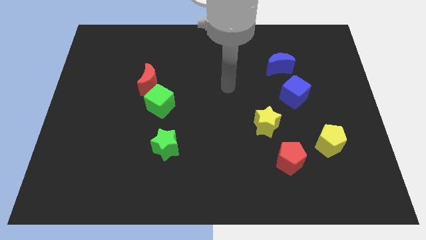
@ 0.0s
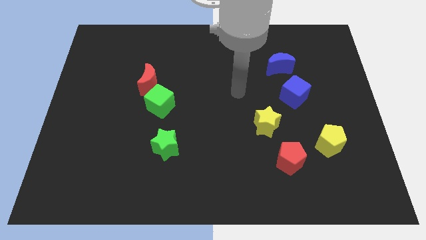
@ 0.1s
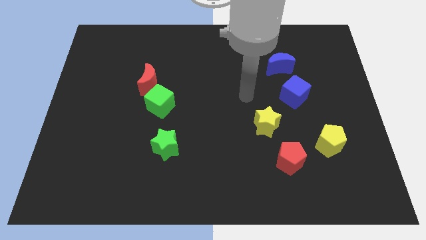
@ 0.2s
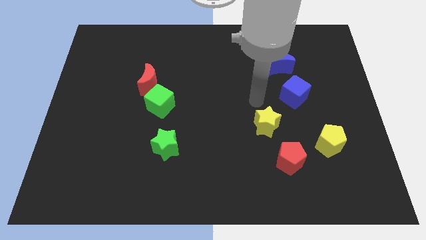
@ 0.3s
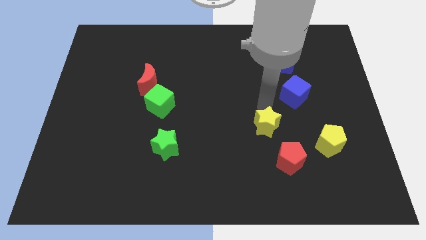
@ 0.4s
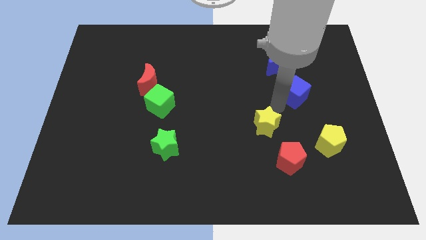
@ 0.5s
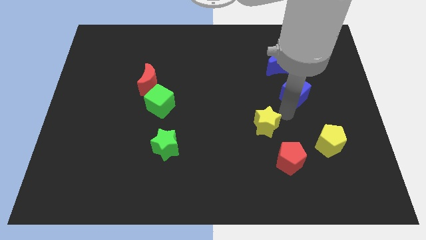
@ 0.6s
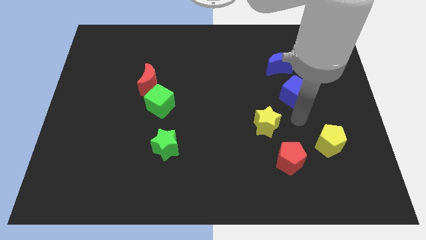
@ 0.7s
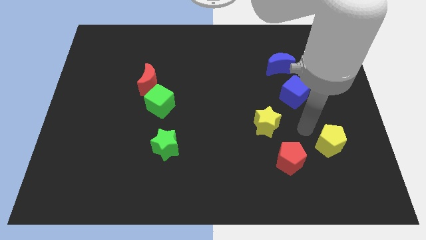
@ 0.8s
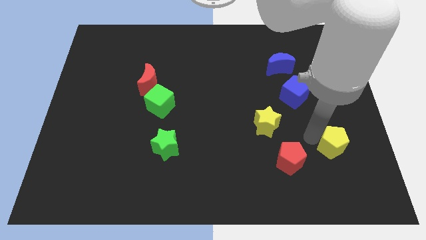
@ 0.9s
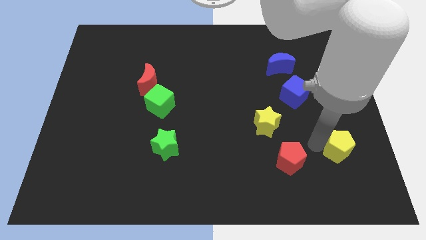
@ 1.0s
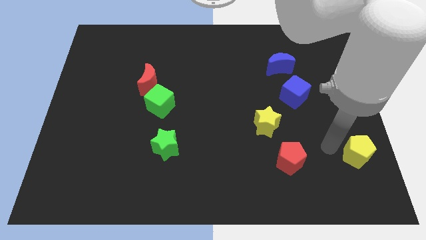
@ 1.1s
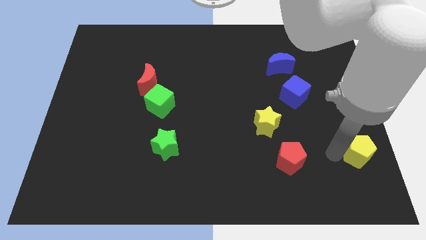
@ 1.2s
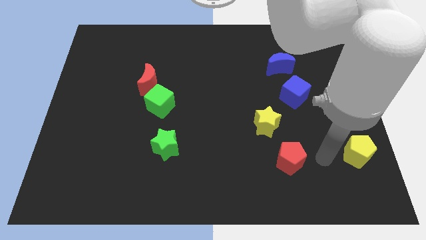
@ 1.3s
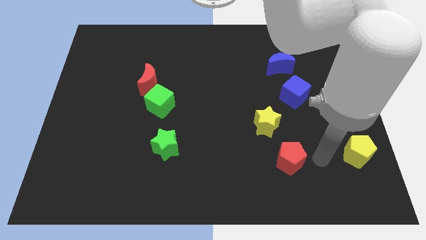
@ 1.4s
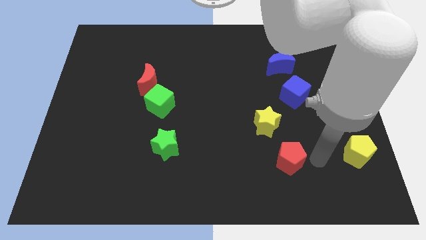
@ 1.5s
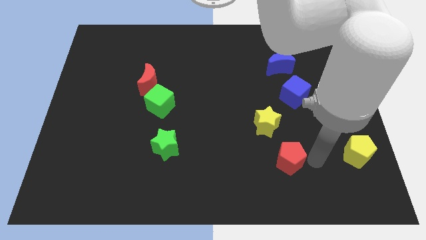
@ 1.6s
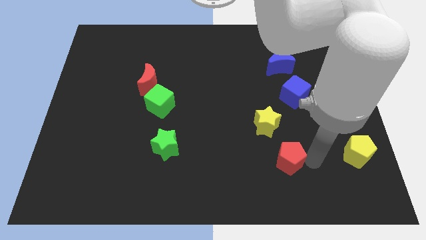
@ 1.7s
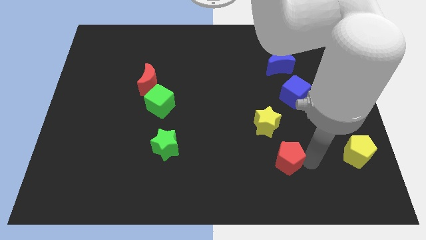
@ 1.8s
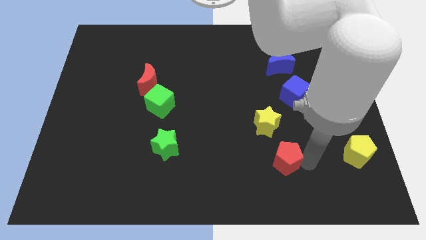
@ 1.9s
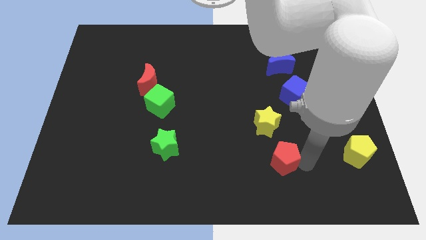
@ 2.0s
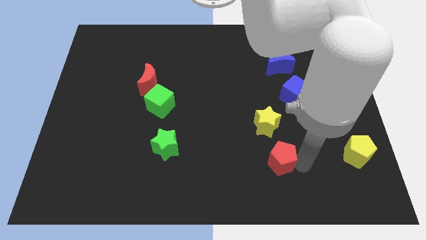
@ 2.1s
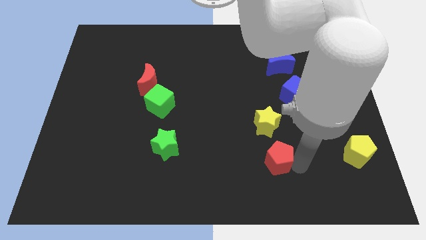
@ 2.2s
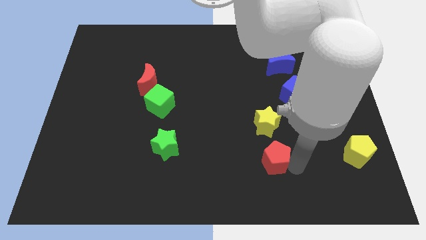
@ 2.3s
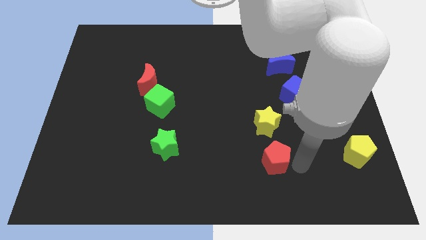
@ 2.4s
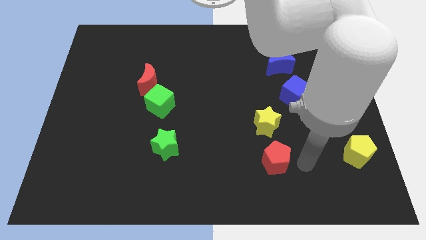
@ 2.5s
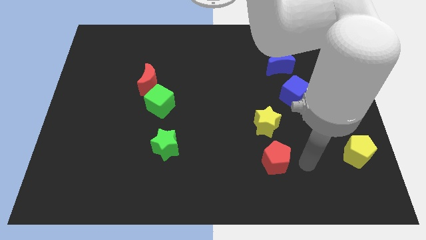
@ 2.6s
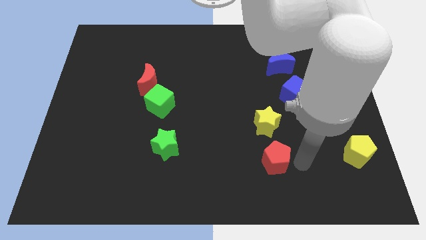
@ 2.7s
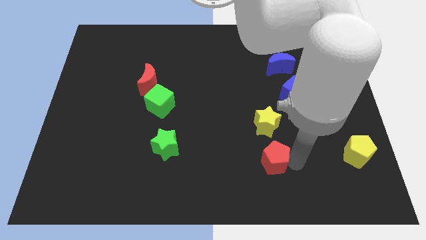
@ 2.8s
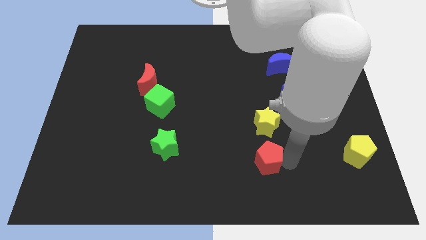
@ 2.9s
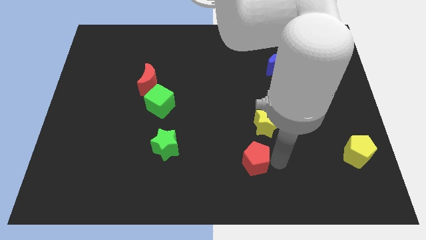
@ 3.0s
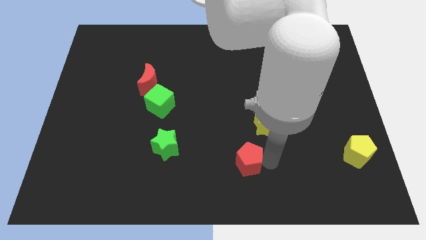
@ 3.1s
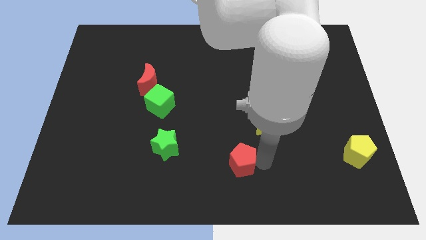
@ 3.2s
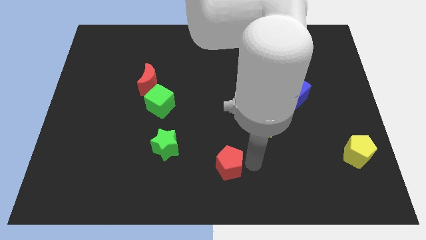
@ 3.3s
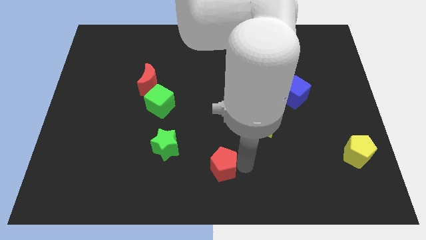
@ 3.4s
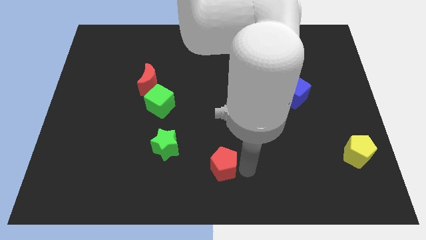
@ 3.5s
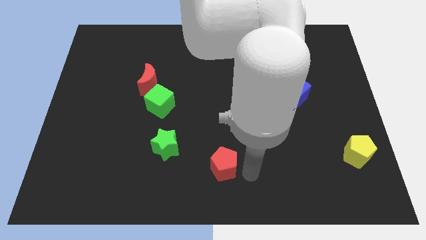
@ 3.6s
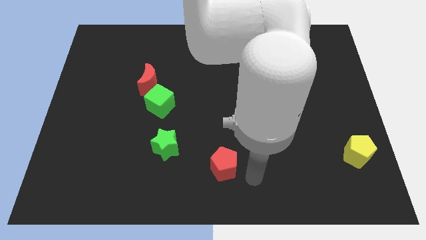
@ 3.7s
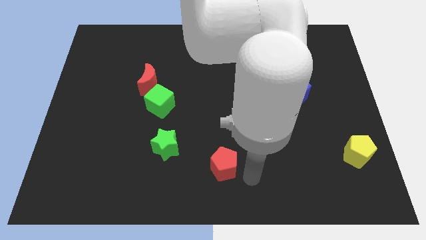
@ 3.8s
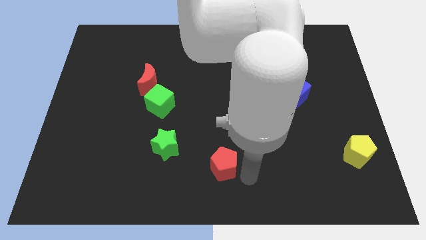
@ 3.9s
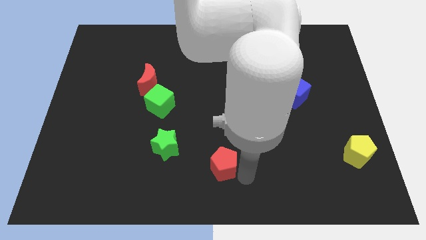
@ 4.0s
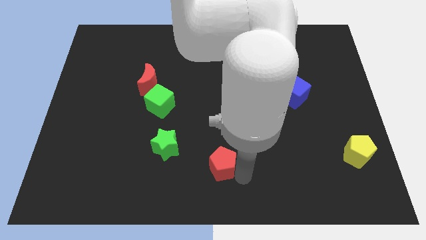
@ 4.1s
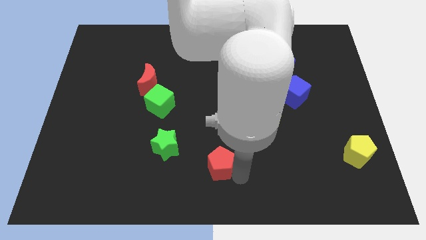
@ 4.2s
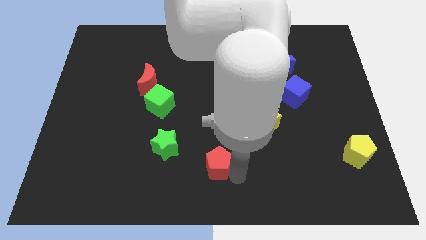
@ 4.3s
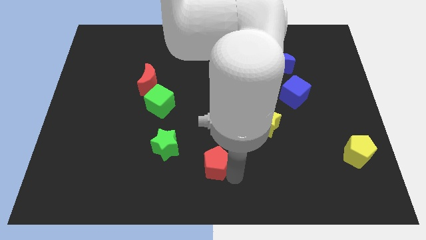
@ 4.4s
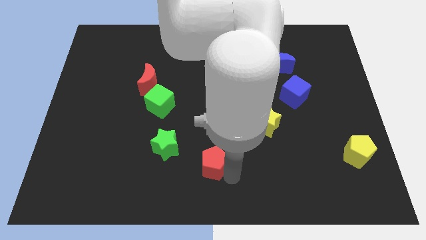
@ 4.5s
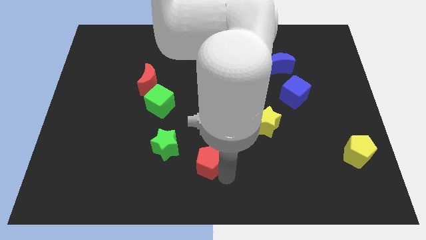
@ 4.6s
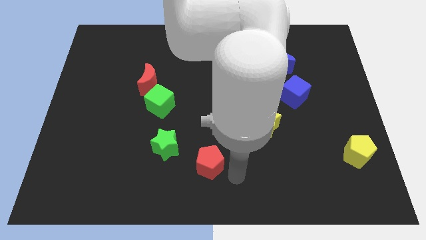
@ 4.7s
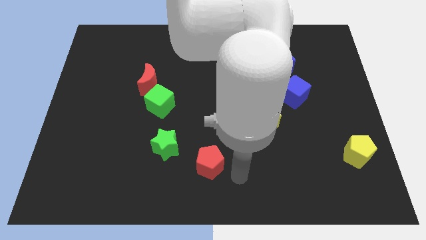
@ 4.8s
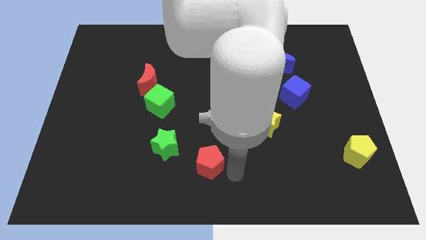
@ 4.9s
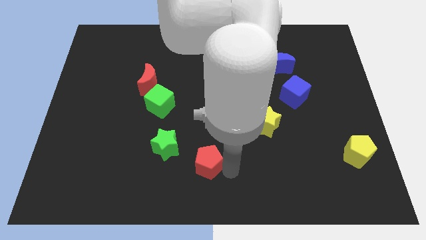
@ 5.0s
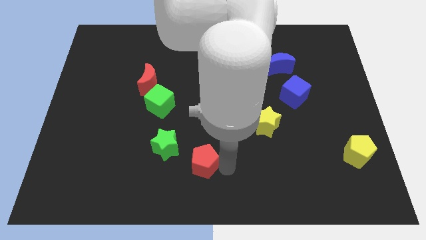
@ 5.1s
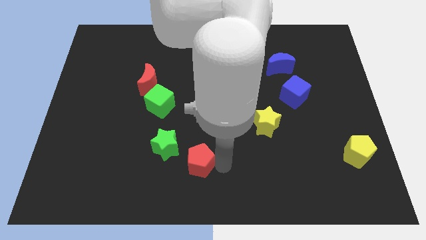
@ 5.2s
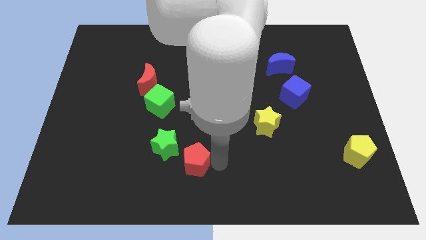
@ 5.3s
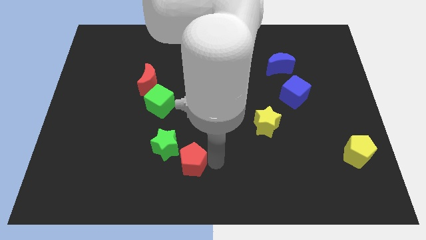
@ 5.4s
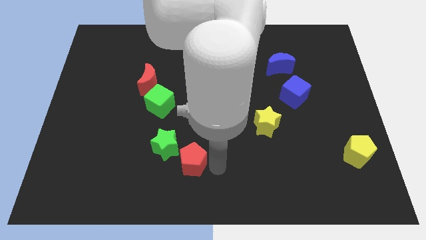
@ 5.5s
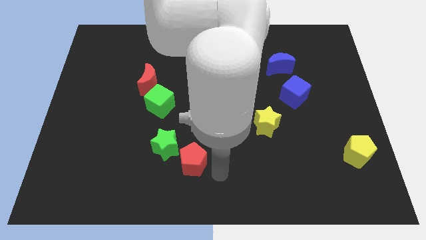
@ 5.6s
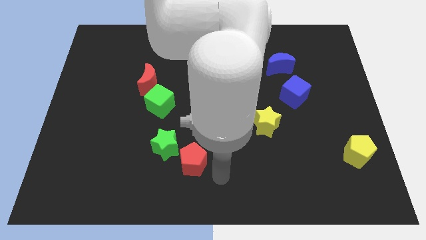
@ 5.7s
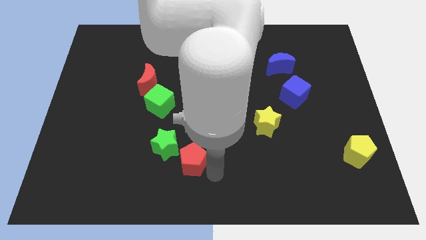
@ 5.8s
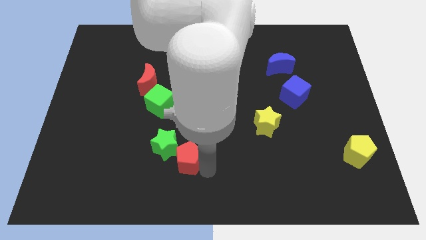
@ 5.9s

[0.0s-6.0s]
slide the red pentagon to the green star

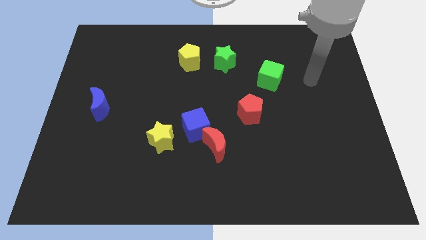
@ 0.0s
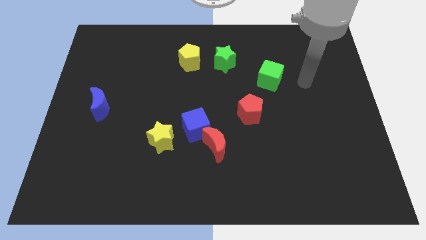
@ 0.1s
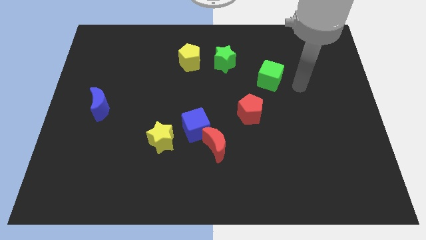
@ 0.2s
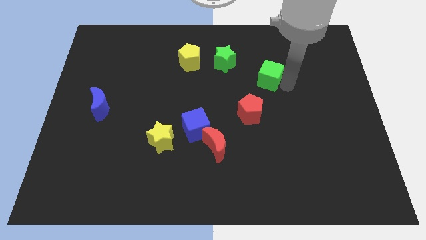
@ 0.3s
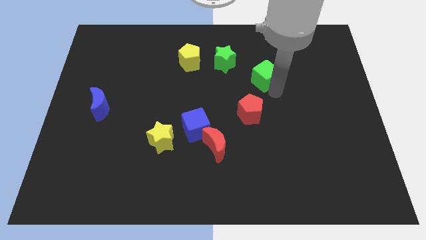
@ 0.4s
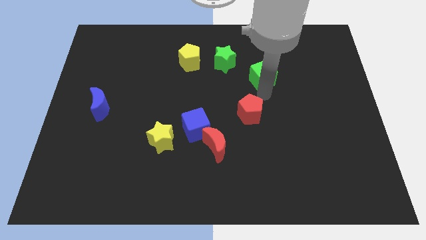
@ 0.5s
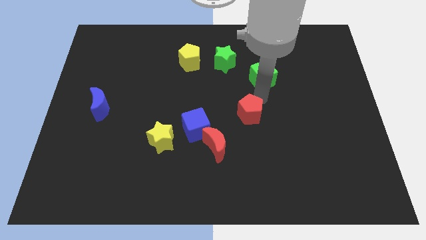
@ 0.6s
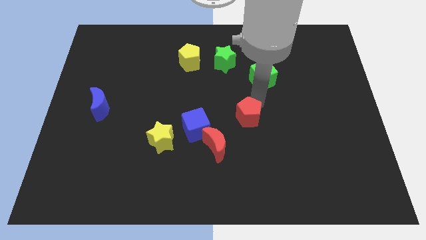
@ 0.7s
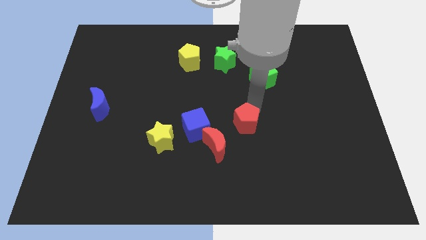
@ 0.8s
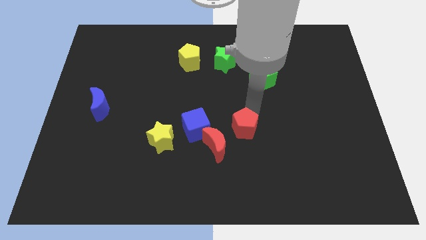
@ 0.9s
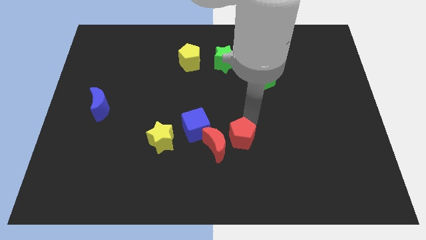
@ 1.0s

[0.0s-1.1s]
move the red pentagon towards the red moon
